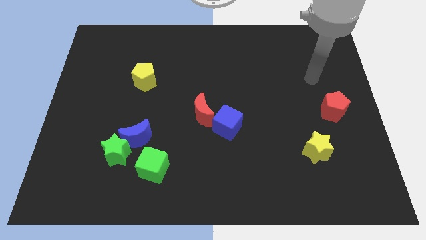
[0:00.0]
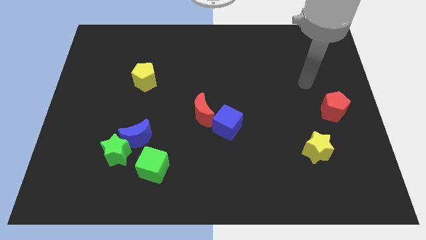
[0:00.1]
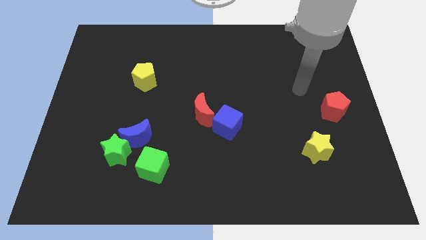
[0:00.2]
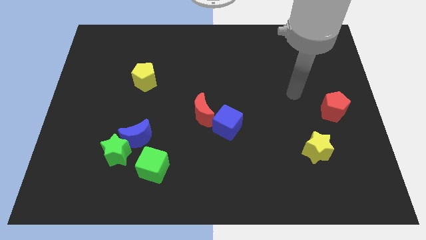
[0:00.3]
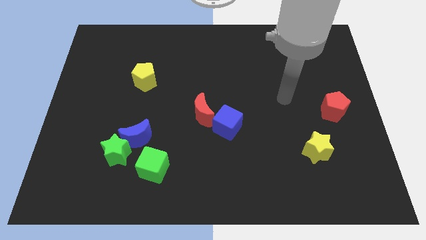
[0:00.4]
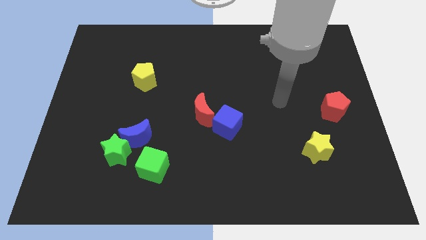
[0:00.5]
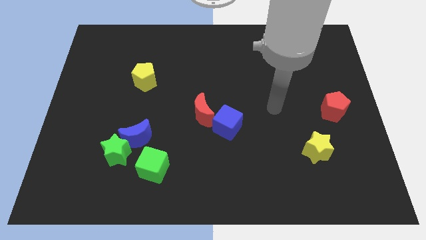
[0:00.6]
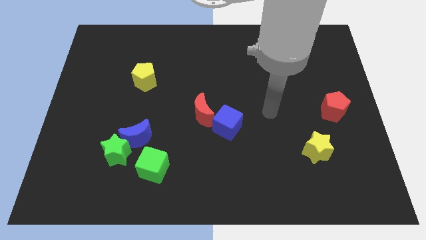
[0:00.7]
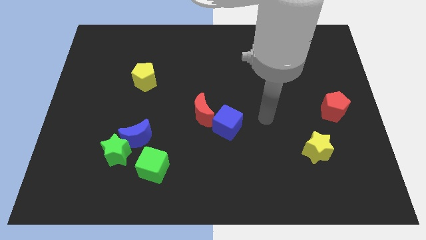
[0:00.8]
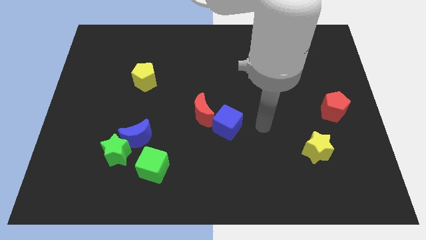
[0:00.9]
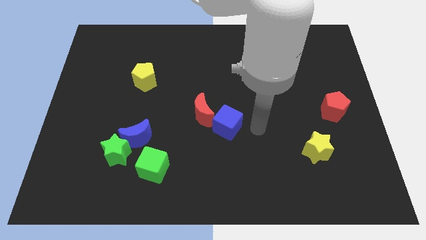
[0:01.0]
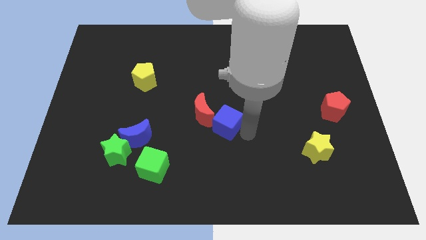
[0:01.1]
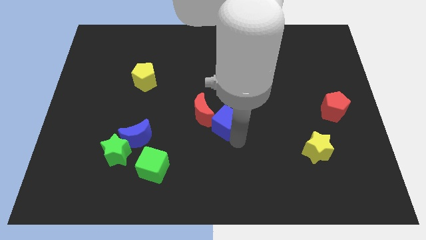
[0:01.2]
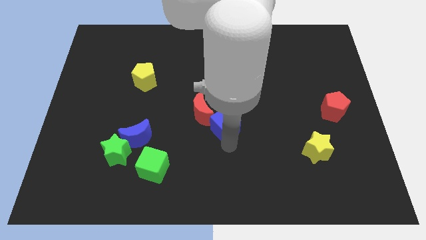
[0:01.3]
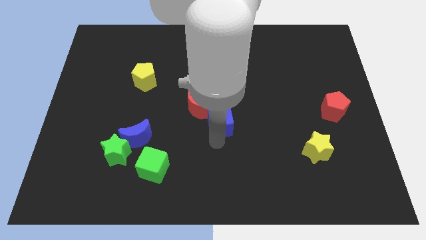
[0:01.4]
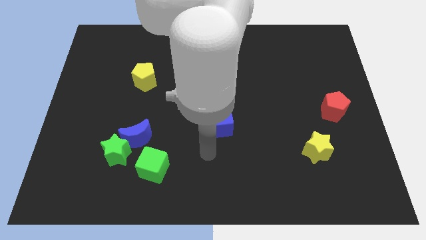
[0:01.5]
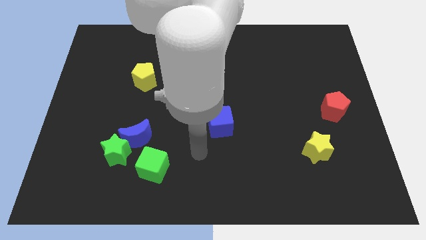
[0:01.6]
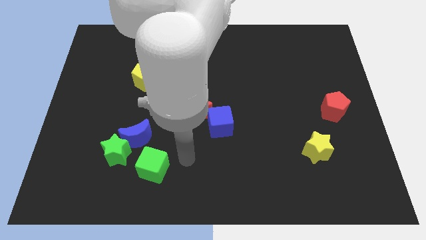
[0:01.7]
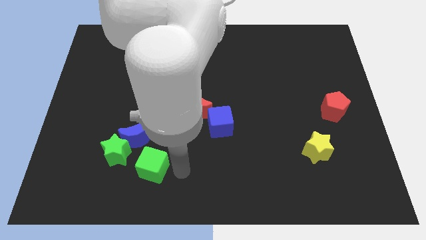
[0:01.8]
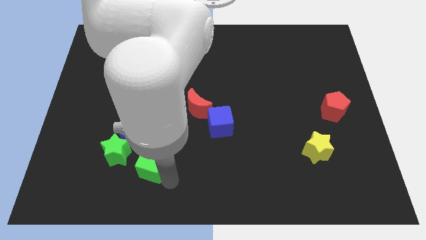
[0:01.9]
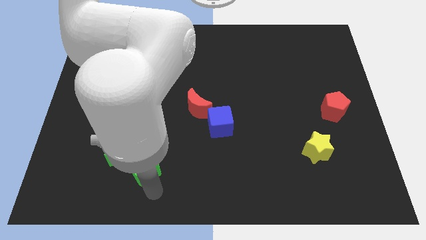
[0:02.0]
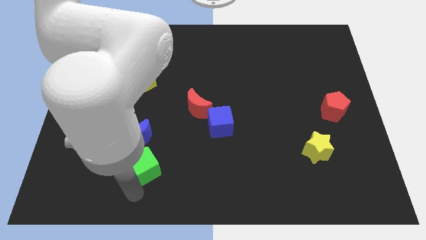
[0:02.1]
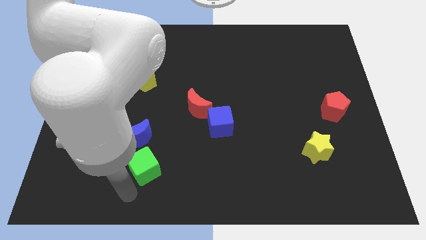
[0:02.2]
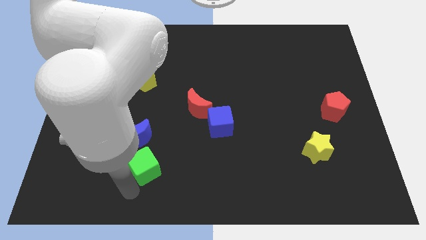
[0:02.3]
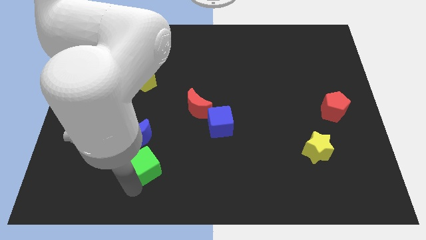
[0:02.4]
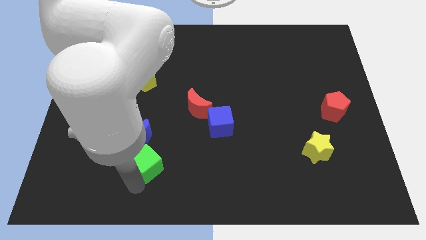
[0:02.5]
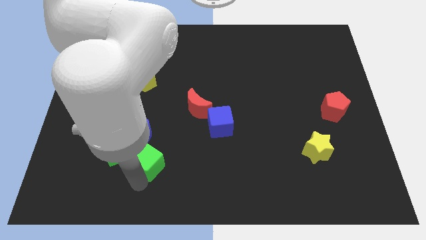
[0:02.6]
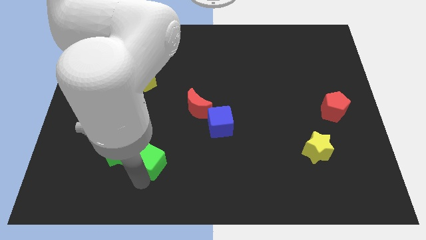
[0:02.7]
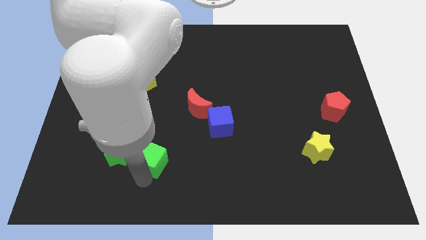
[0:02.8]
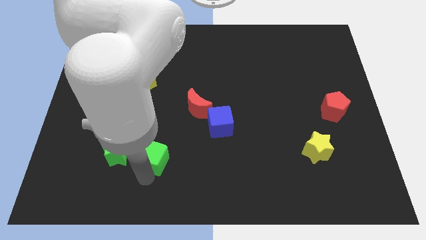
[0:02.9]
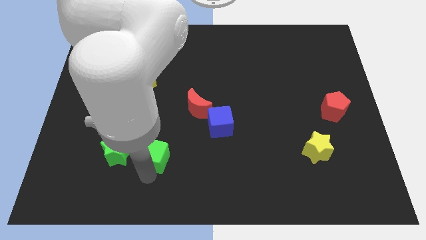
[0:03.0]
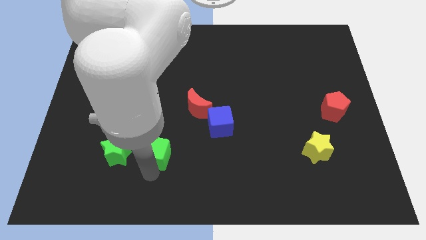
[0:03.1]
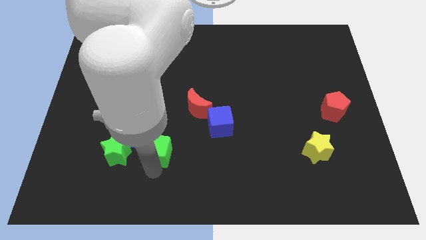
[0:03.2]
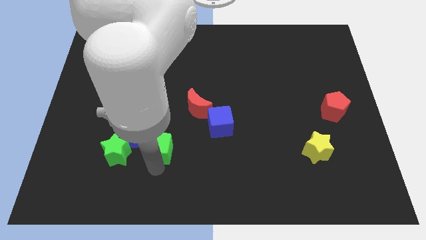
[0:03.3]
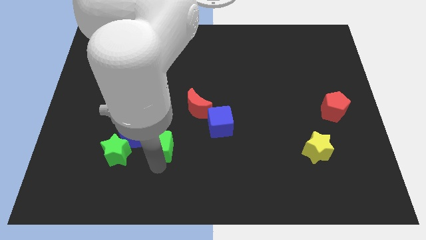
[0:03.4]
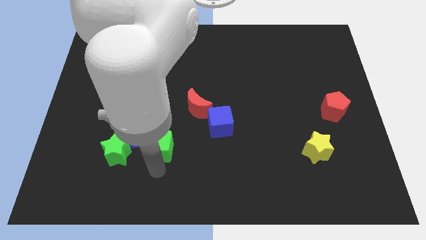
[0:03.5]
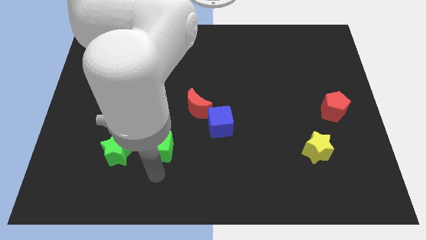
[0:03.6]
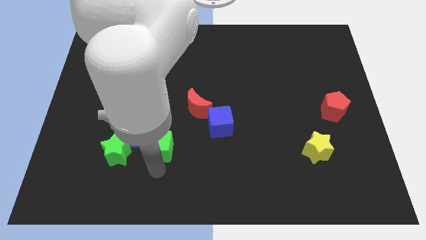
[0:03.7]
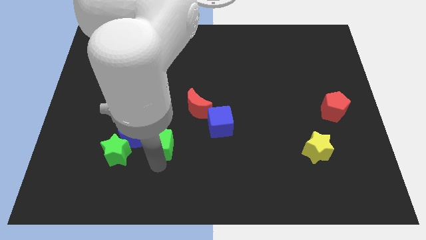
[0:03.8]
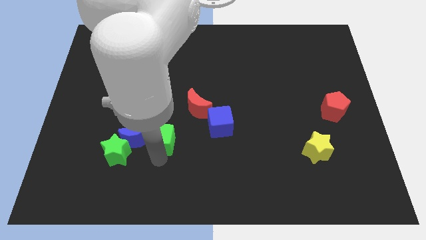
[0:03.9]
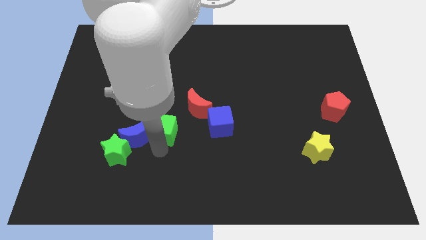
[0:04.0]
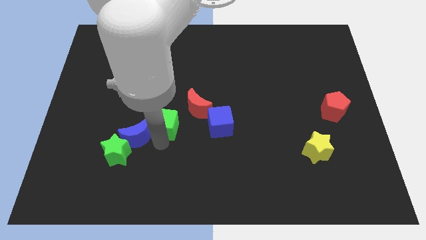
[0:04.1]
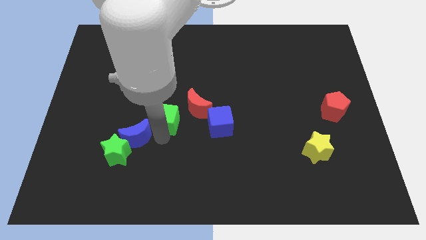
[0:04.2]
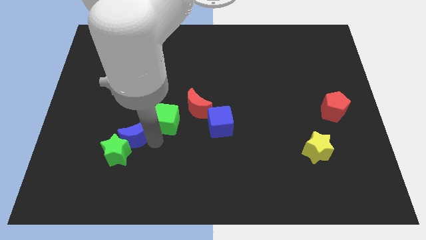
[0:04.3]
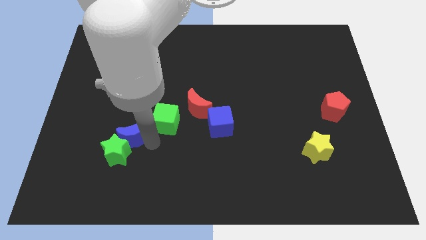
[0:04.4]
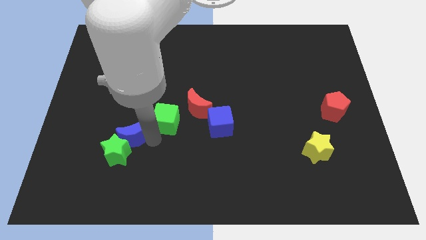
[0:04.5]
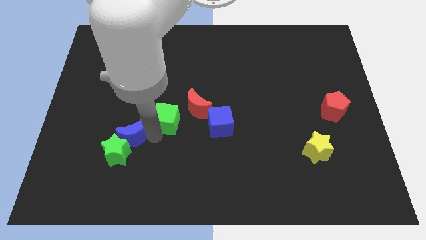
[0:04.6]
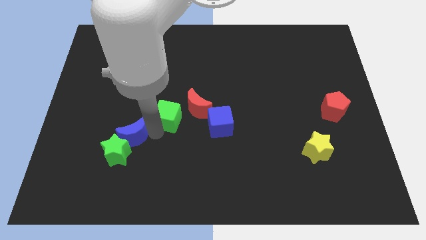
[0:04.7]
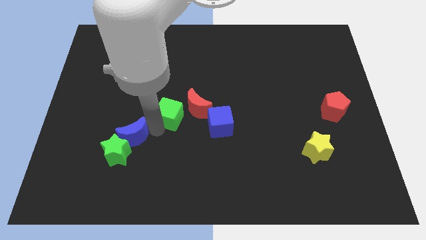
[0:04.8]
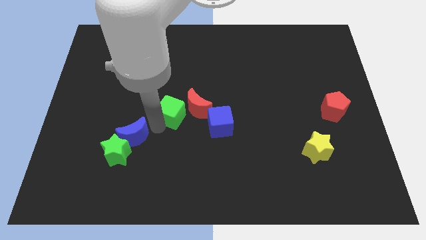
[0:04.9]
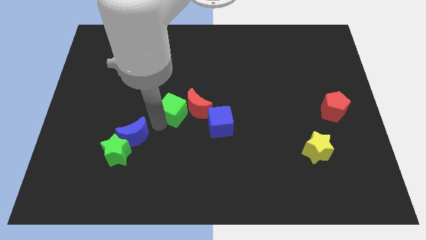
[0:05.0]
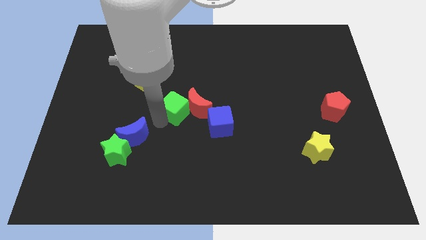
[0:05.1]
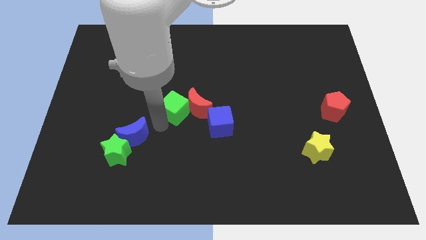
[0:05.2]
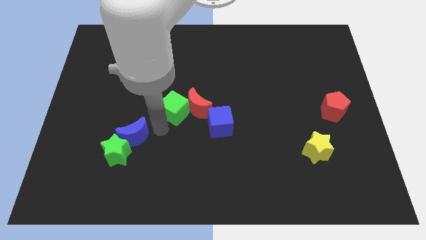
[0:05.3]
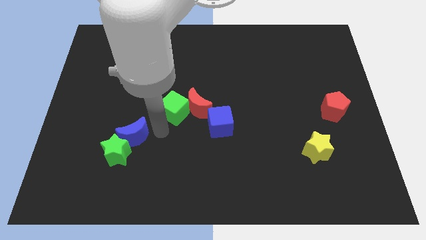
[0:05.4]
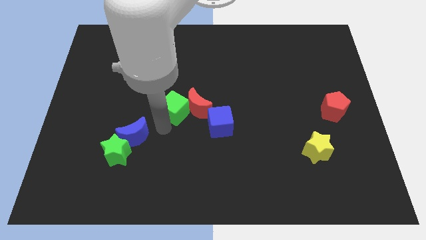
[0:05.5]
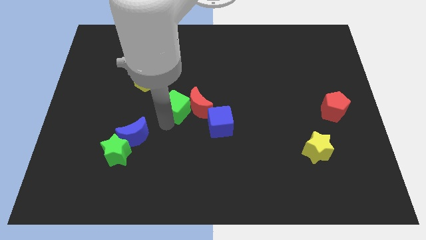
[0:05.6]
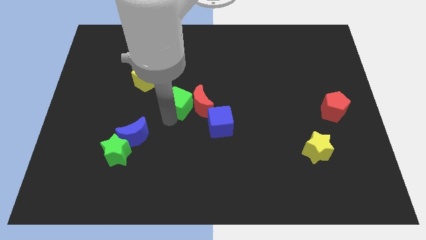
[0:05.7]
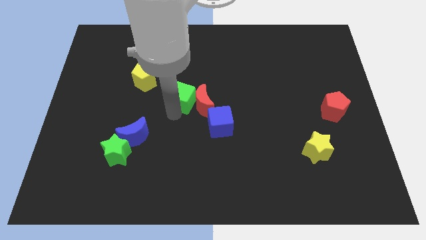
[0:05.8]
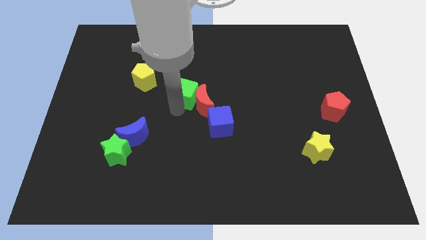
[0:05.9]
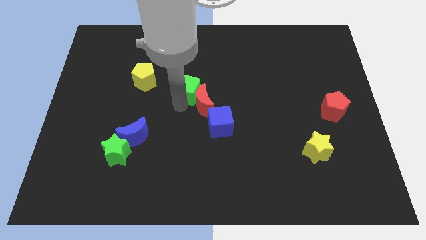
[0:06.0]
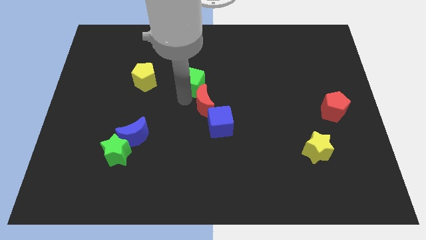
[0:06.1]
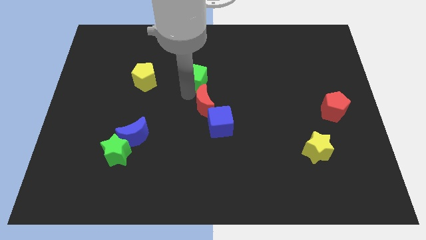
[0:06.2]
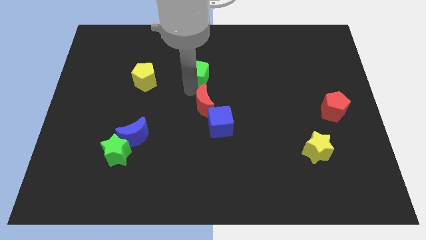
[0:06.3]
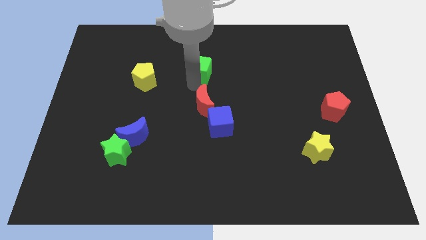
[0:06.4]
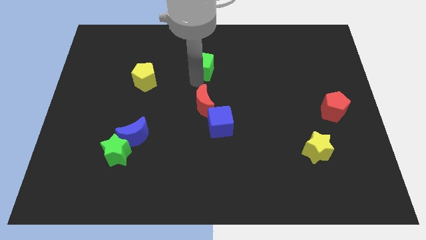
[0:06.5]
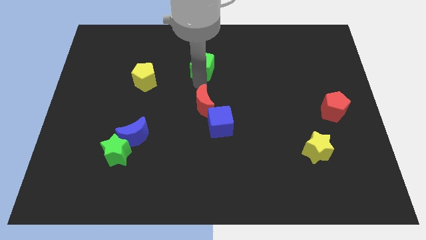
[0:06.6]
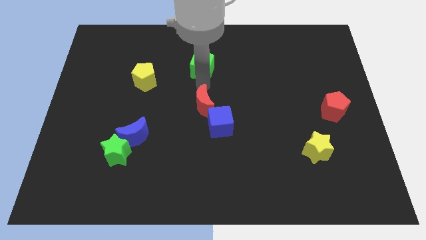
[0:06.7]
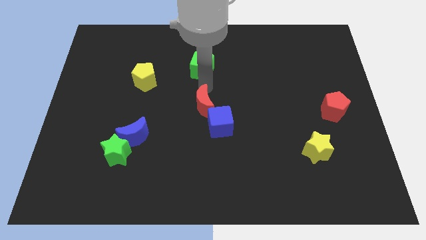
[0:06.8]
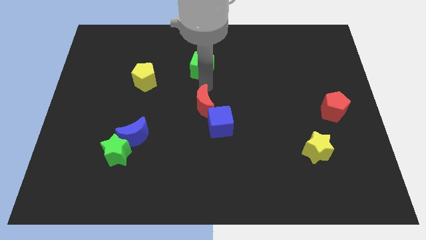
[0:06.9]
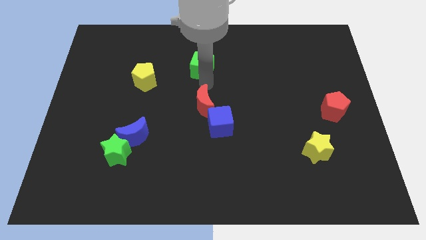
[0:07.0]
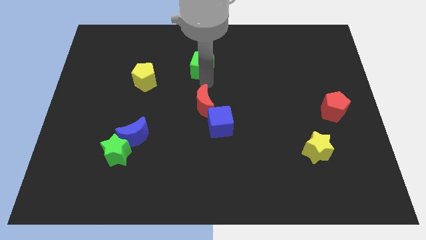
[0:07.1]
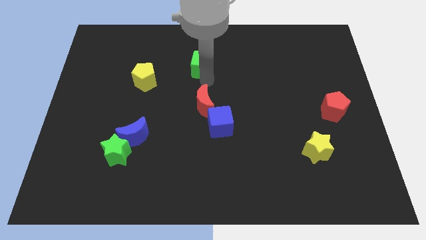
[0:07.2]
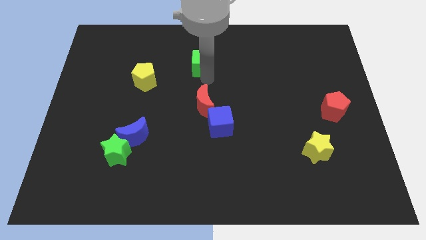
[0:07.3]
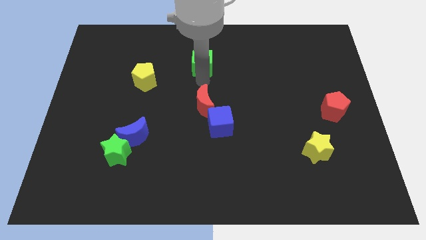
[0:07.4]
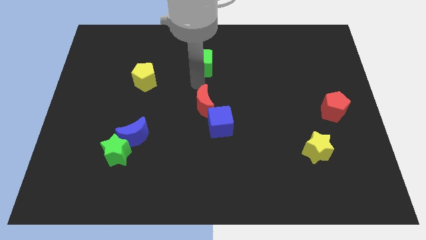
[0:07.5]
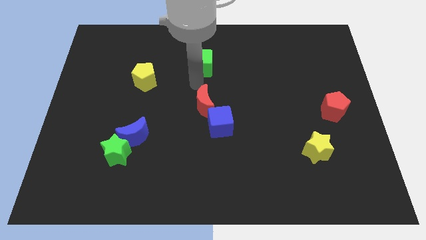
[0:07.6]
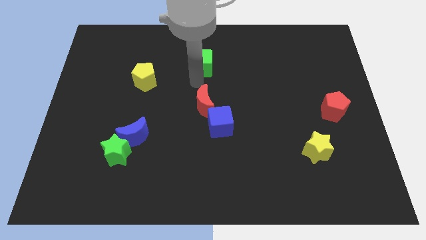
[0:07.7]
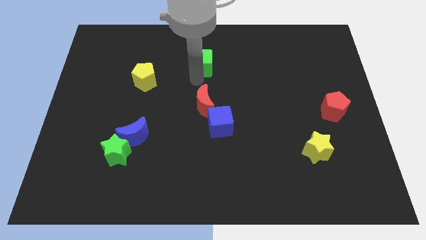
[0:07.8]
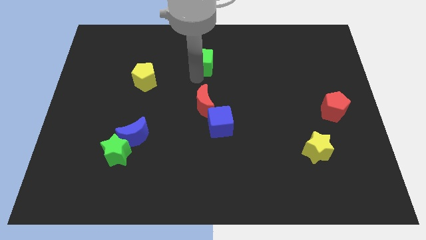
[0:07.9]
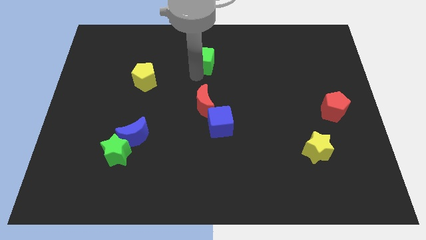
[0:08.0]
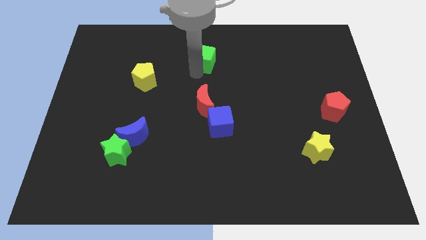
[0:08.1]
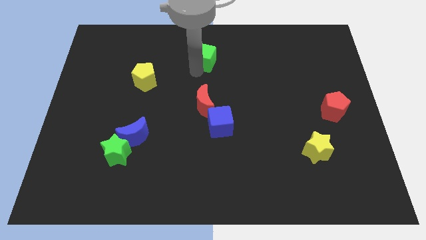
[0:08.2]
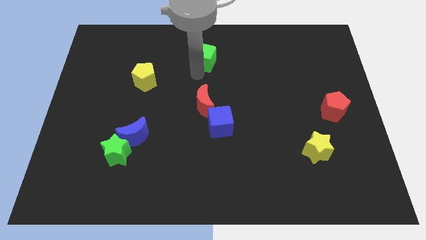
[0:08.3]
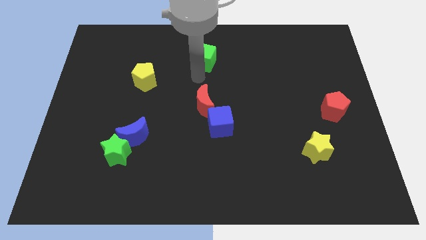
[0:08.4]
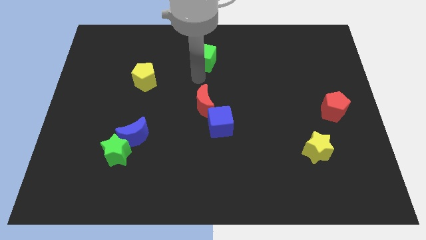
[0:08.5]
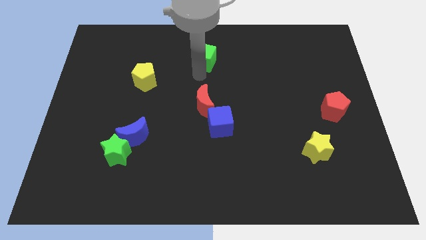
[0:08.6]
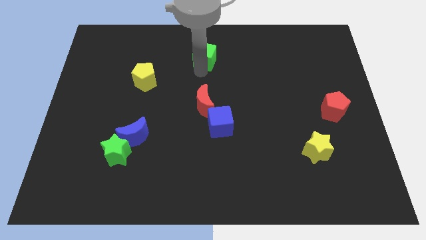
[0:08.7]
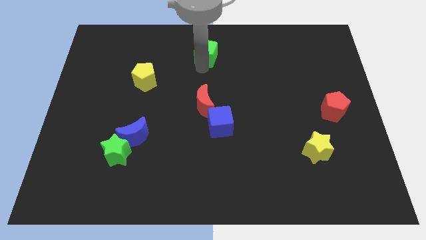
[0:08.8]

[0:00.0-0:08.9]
put the green cube to the top
